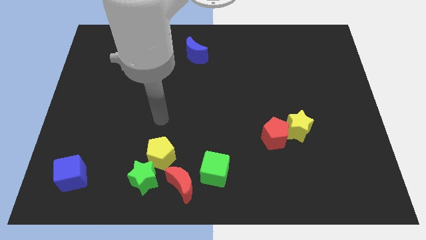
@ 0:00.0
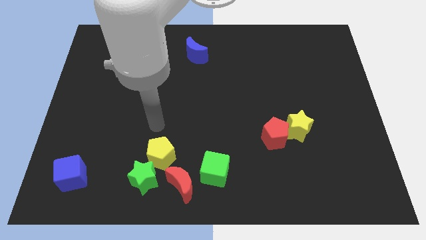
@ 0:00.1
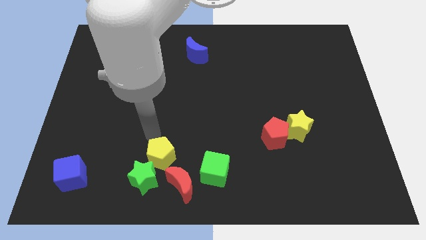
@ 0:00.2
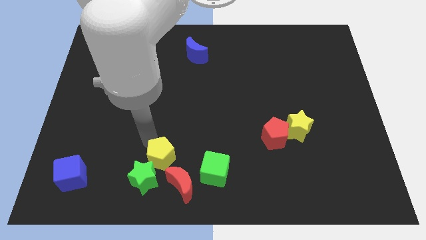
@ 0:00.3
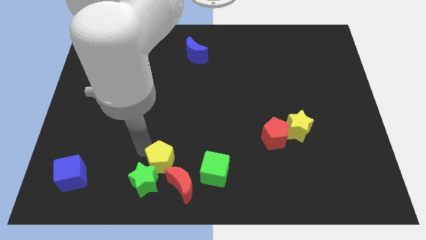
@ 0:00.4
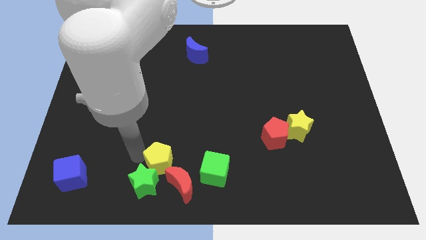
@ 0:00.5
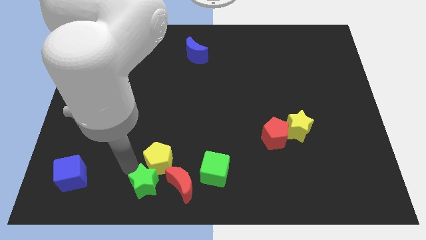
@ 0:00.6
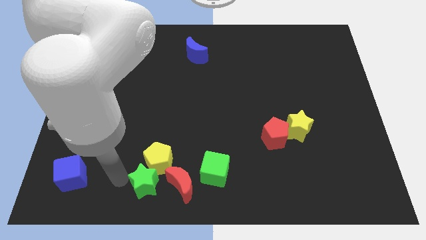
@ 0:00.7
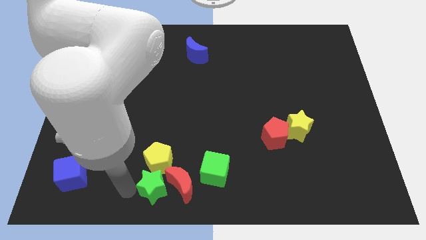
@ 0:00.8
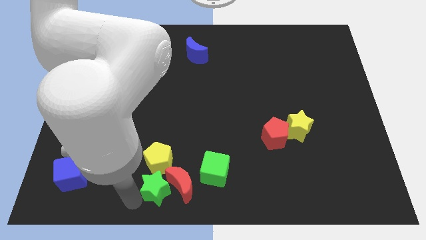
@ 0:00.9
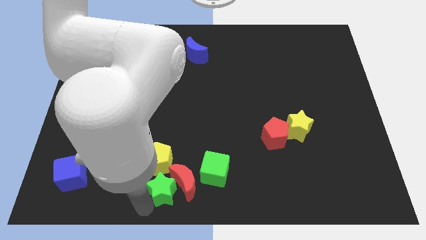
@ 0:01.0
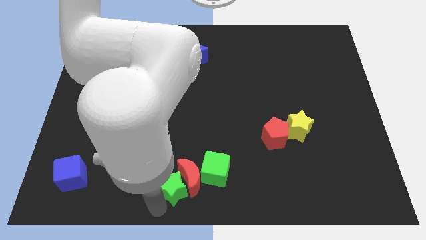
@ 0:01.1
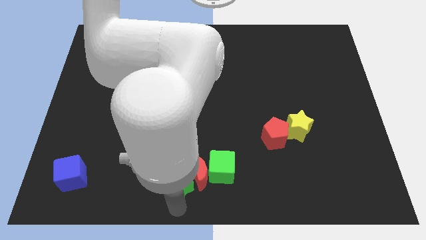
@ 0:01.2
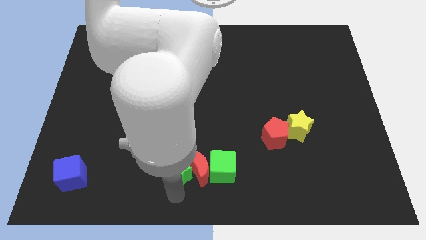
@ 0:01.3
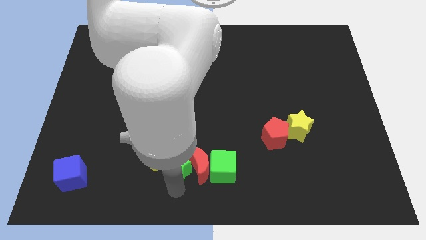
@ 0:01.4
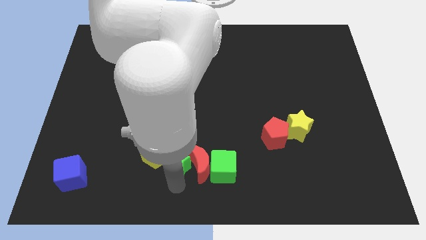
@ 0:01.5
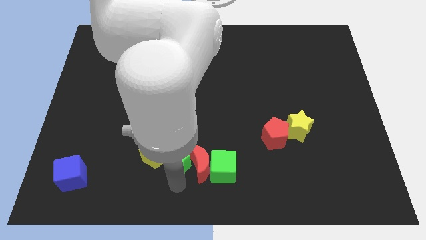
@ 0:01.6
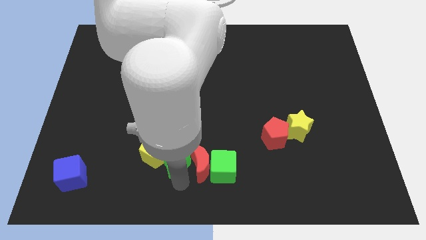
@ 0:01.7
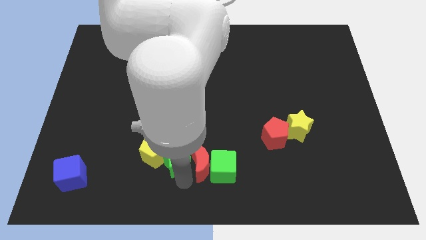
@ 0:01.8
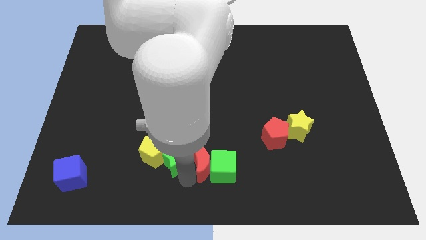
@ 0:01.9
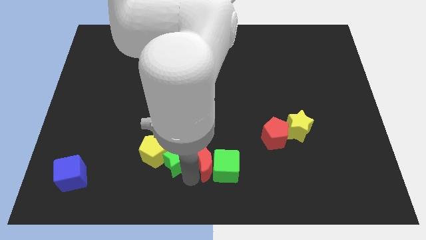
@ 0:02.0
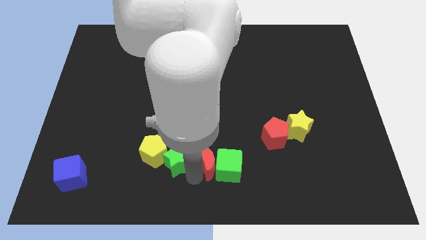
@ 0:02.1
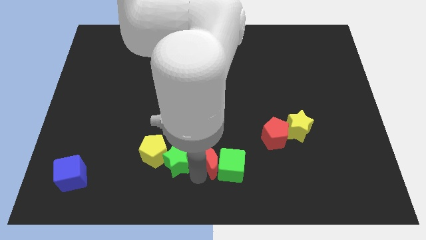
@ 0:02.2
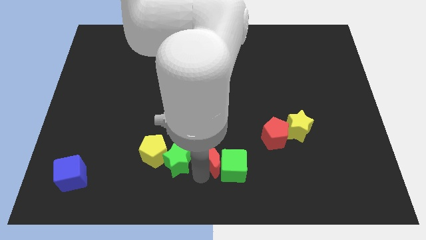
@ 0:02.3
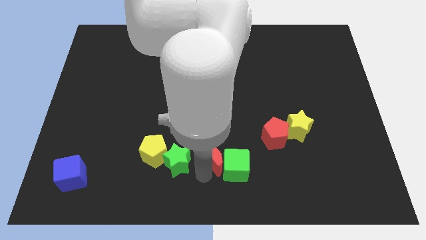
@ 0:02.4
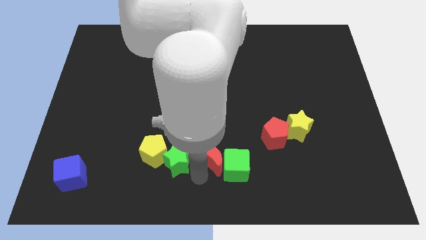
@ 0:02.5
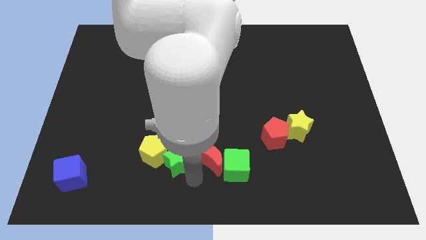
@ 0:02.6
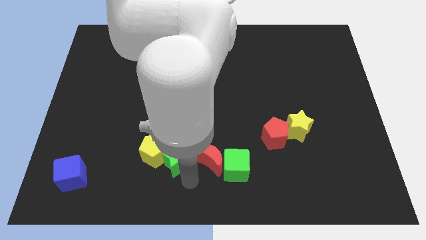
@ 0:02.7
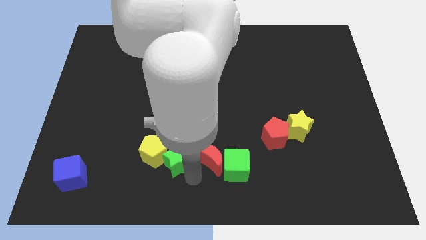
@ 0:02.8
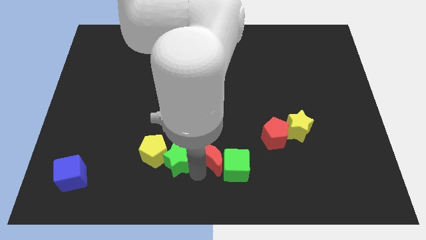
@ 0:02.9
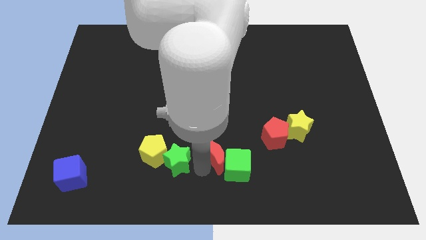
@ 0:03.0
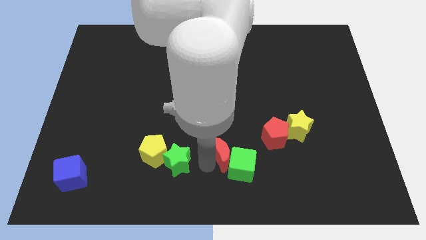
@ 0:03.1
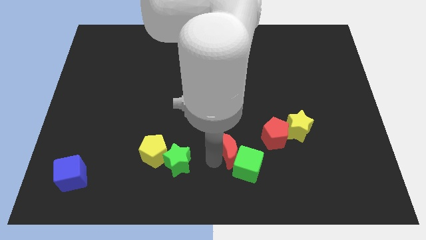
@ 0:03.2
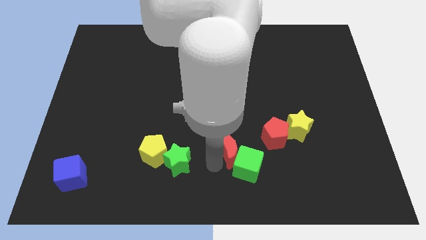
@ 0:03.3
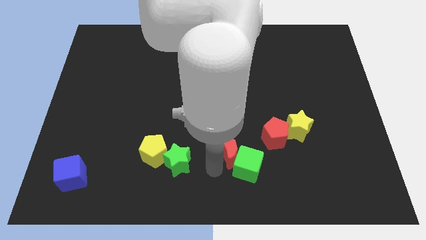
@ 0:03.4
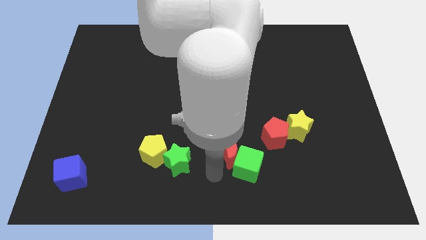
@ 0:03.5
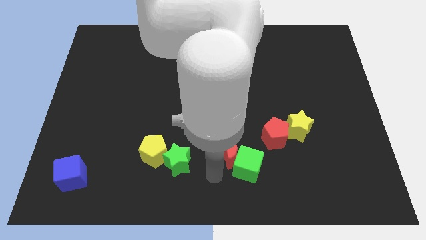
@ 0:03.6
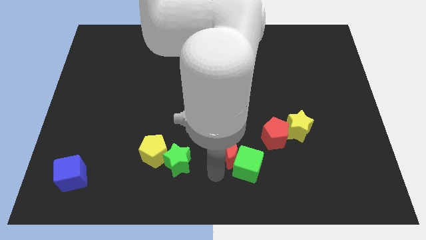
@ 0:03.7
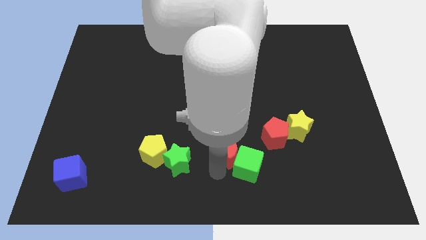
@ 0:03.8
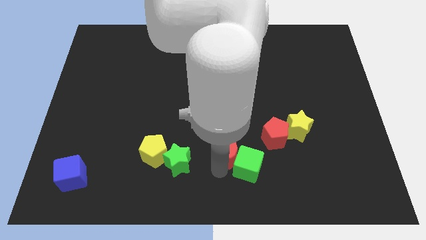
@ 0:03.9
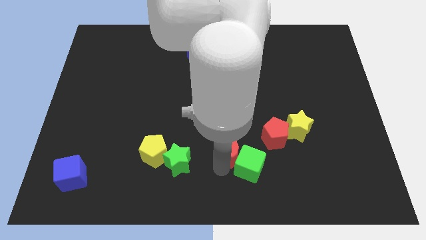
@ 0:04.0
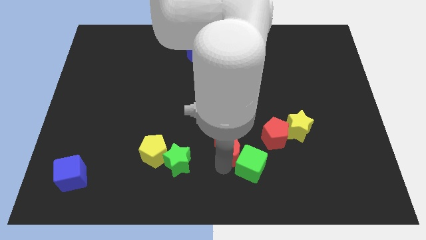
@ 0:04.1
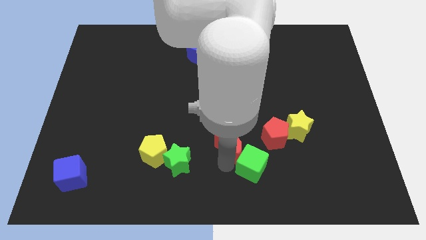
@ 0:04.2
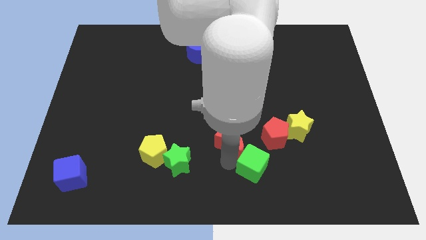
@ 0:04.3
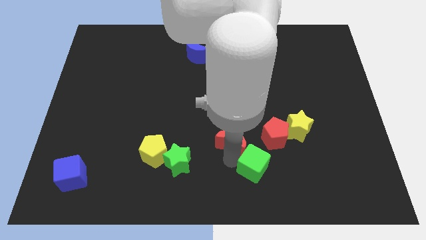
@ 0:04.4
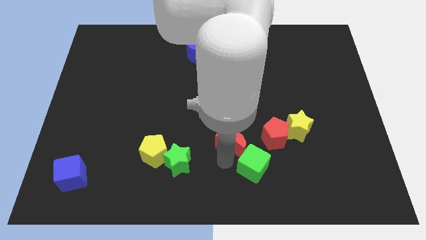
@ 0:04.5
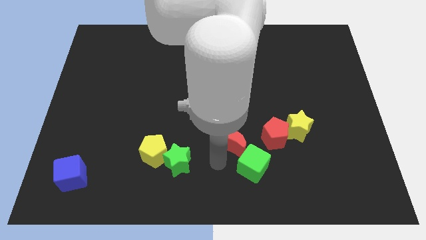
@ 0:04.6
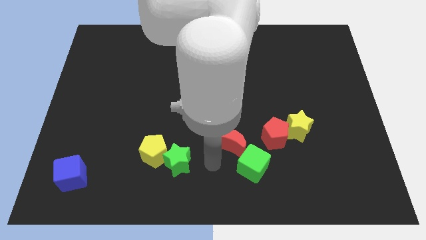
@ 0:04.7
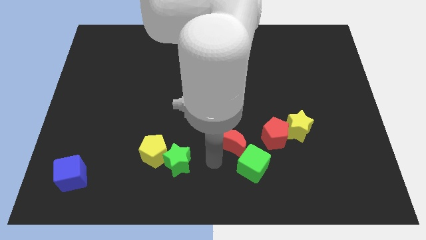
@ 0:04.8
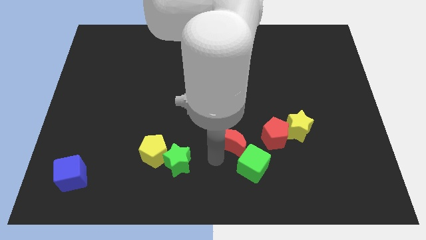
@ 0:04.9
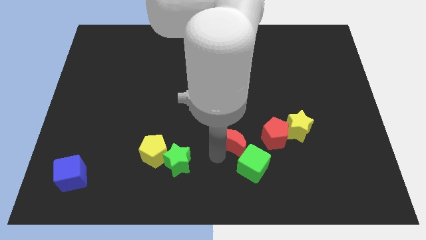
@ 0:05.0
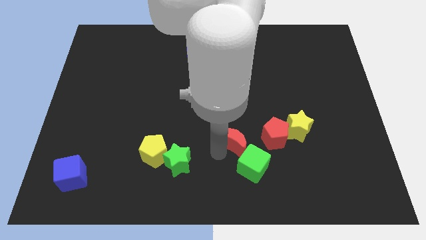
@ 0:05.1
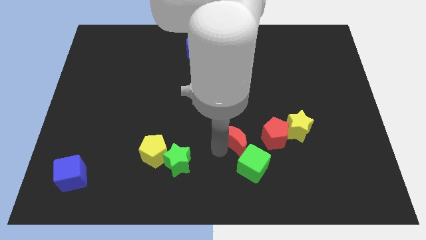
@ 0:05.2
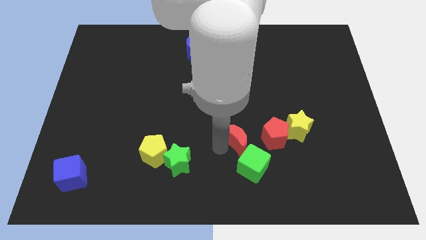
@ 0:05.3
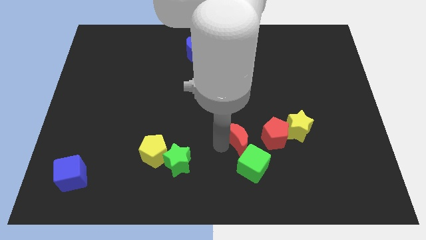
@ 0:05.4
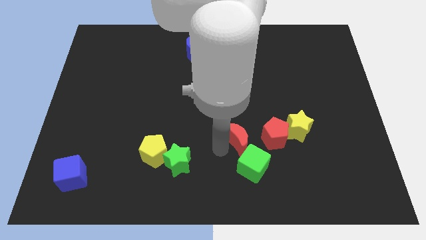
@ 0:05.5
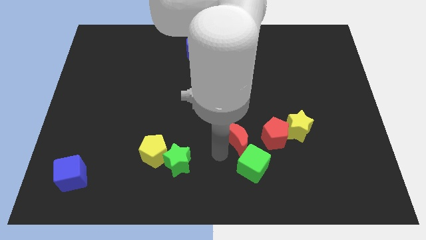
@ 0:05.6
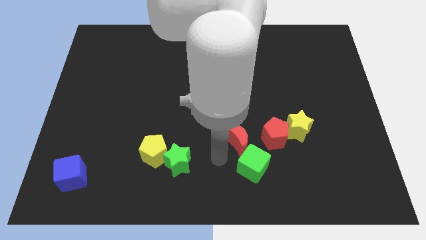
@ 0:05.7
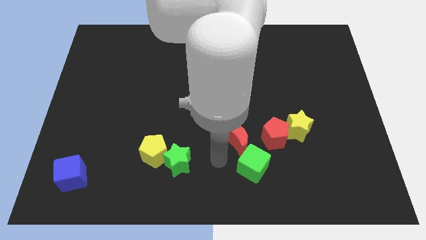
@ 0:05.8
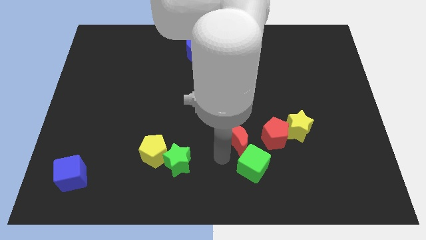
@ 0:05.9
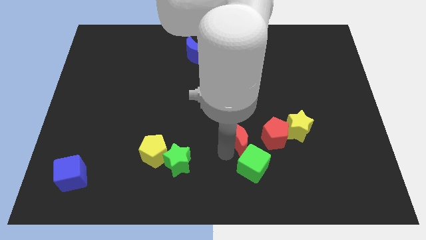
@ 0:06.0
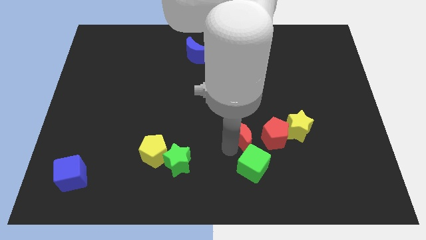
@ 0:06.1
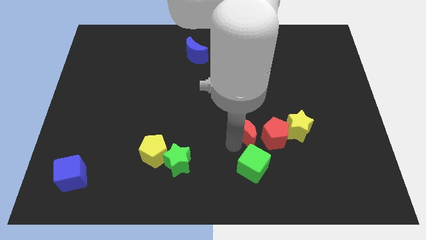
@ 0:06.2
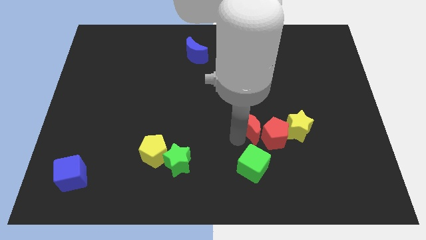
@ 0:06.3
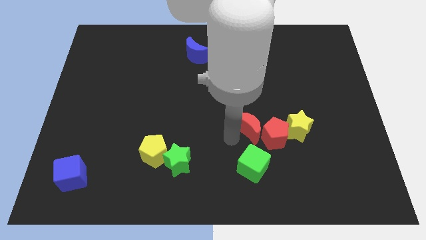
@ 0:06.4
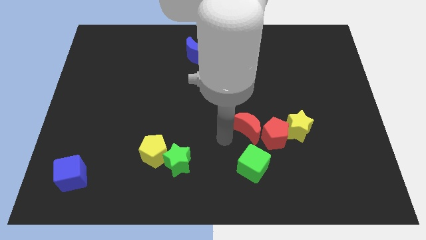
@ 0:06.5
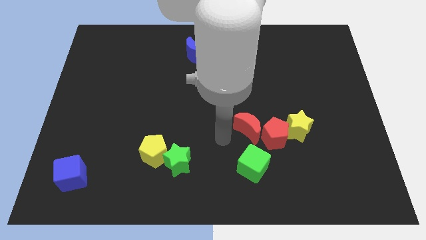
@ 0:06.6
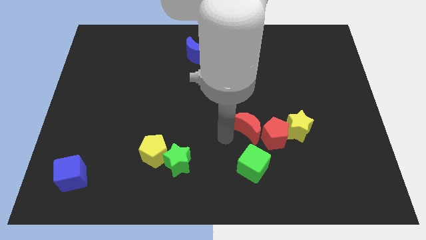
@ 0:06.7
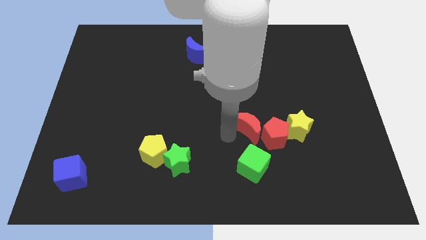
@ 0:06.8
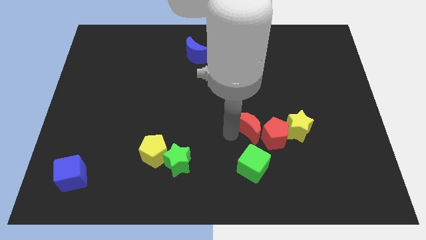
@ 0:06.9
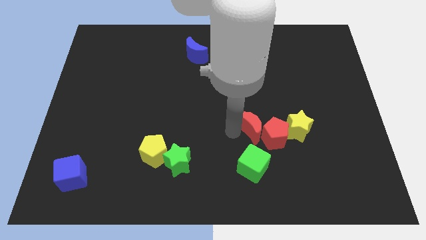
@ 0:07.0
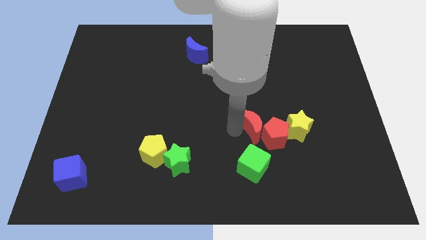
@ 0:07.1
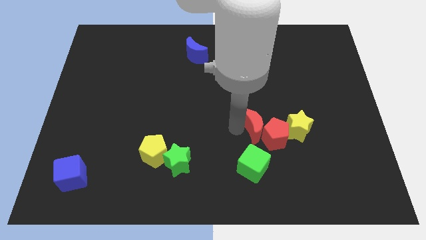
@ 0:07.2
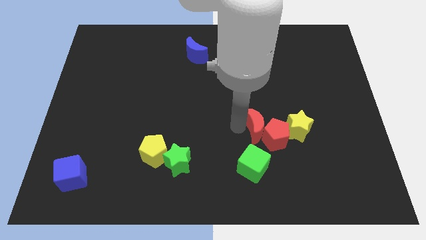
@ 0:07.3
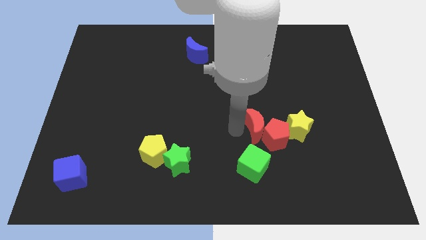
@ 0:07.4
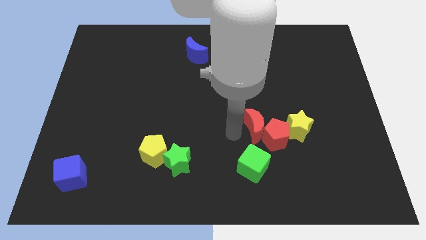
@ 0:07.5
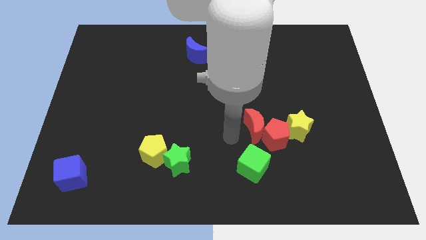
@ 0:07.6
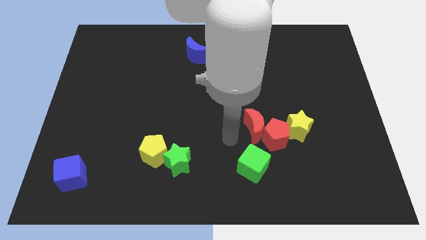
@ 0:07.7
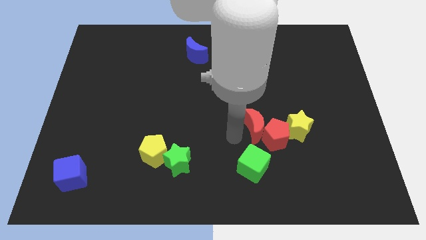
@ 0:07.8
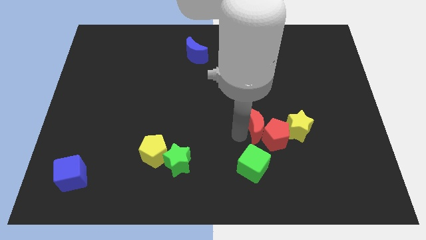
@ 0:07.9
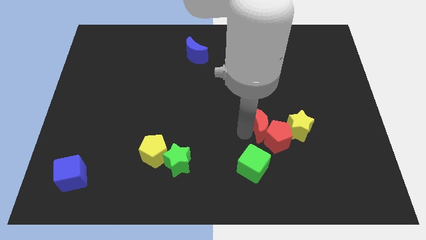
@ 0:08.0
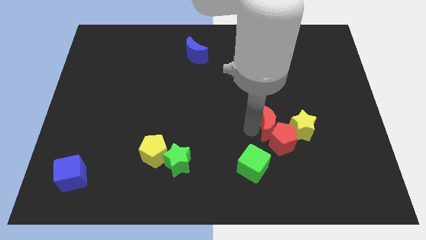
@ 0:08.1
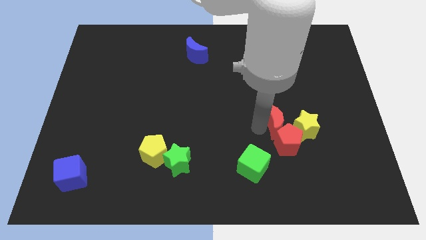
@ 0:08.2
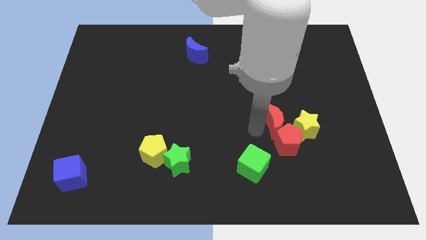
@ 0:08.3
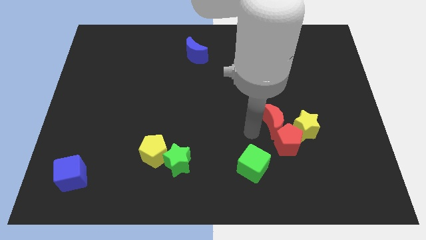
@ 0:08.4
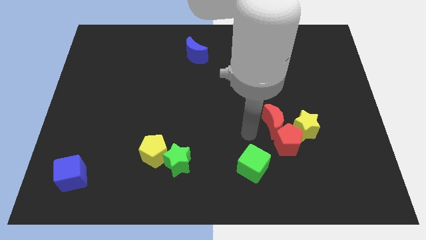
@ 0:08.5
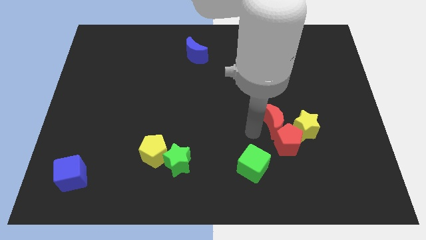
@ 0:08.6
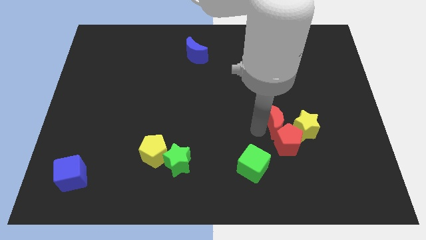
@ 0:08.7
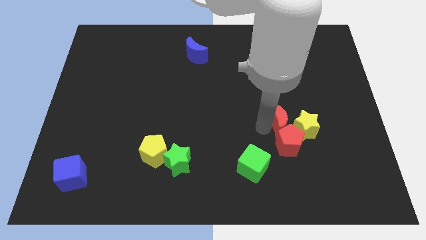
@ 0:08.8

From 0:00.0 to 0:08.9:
put the red moon to the yellow star
